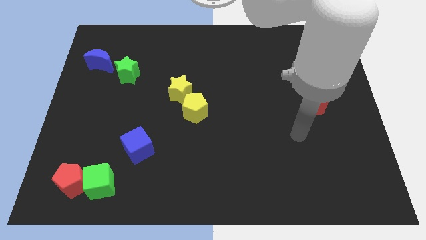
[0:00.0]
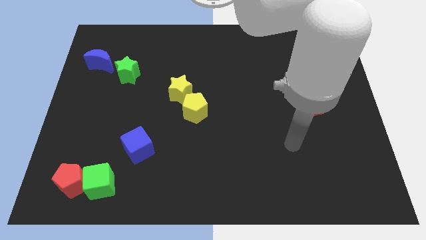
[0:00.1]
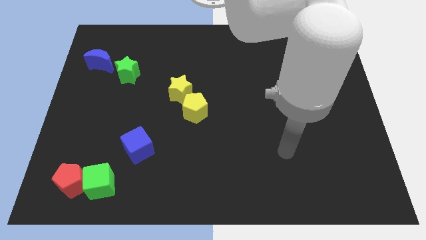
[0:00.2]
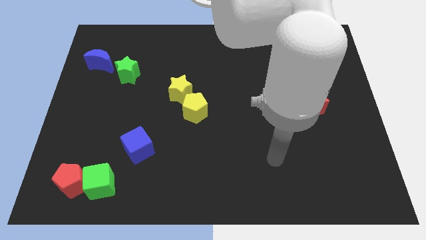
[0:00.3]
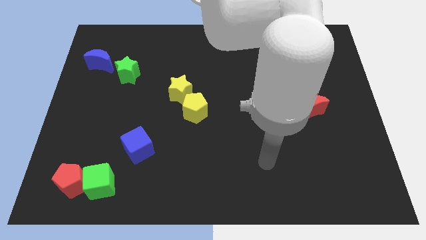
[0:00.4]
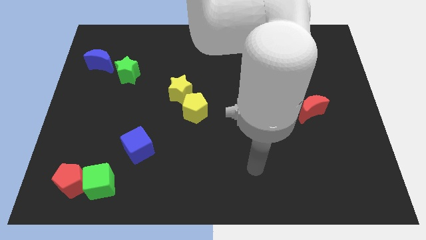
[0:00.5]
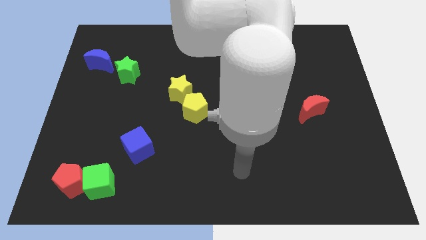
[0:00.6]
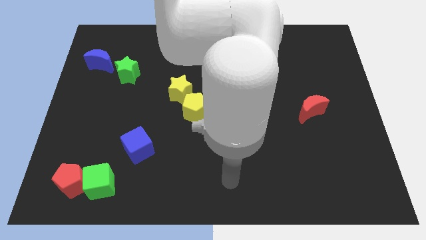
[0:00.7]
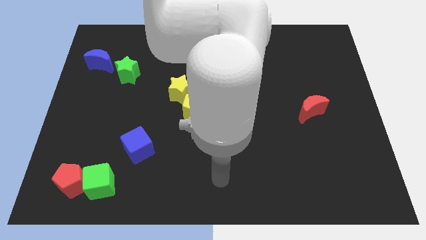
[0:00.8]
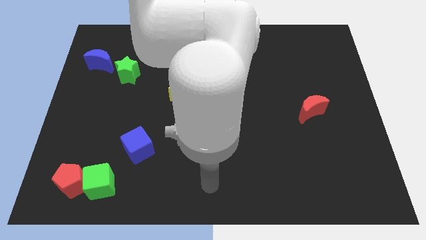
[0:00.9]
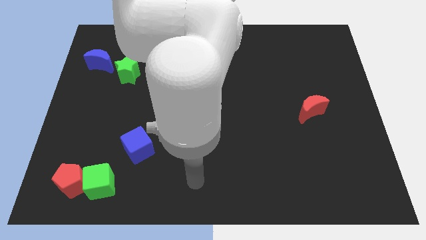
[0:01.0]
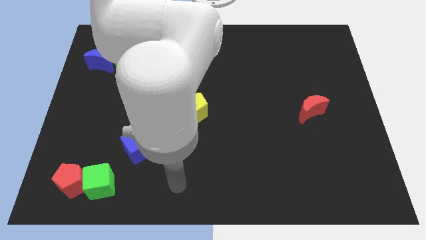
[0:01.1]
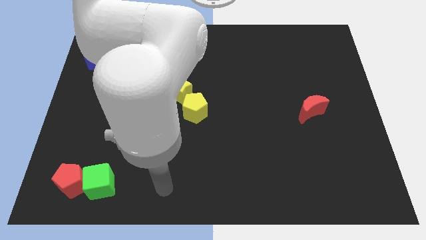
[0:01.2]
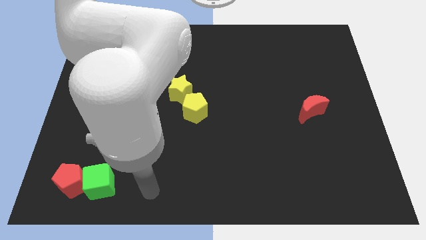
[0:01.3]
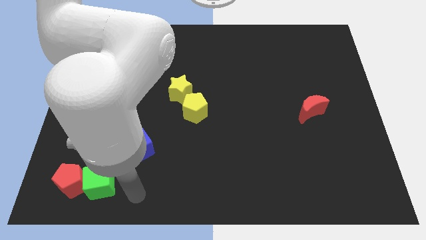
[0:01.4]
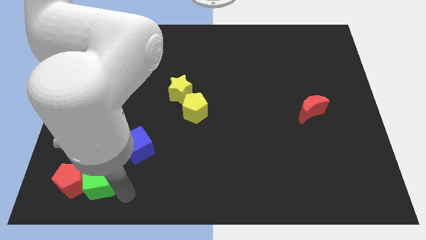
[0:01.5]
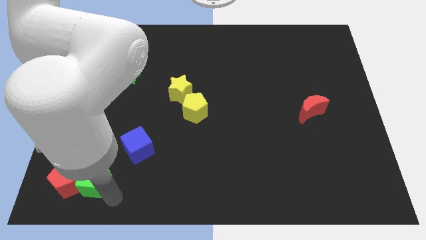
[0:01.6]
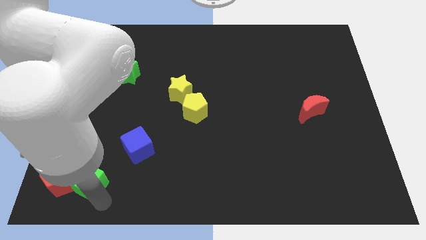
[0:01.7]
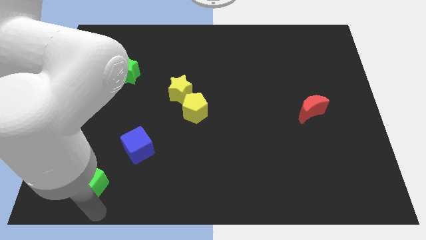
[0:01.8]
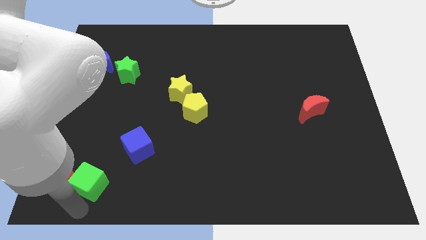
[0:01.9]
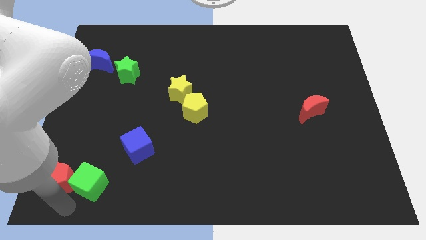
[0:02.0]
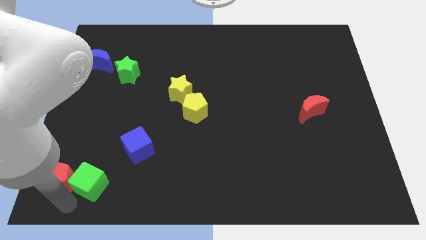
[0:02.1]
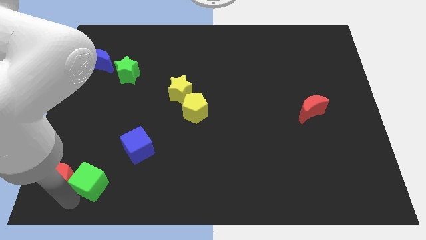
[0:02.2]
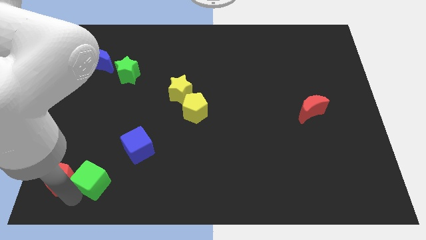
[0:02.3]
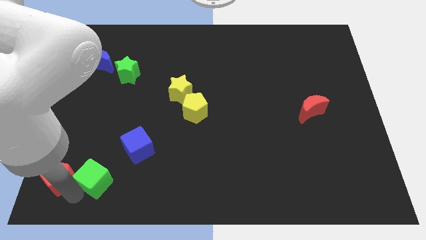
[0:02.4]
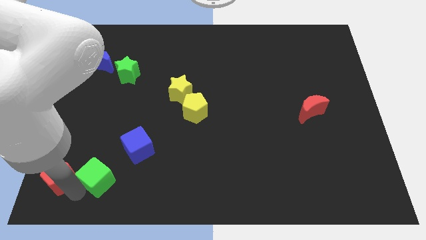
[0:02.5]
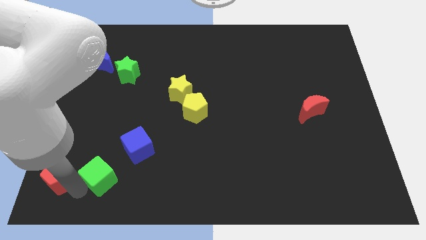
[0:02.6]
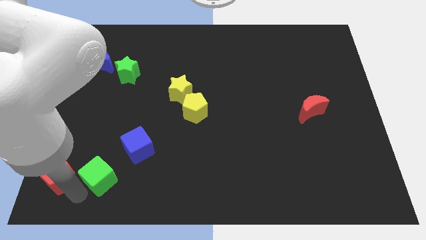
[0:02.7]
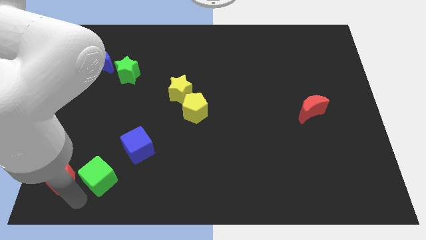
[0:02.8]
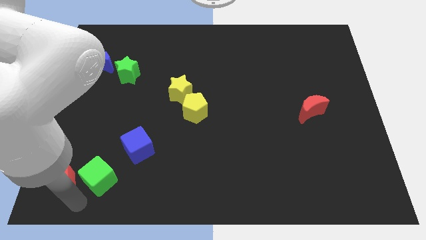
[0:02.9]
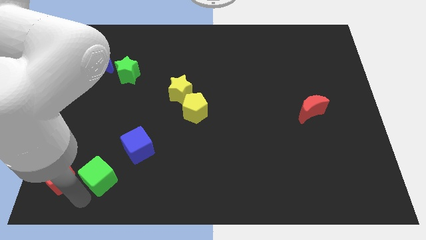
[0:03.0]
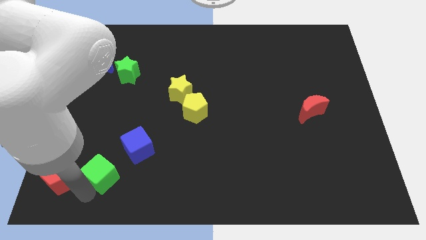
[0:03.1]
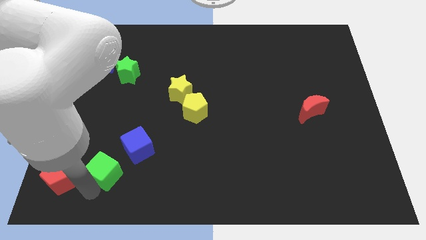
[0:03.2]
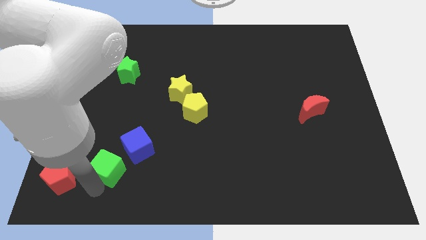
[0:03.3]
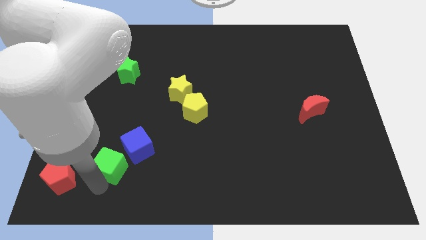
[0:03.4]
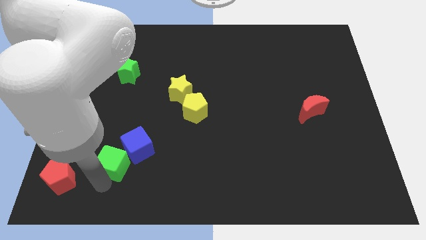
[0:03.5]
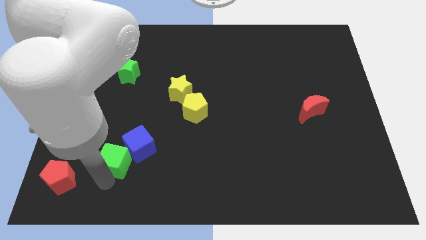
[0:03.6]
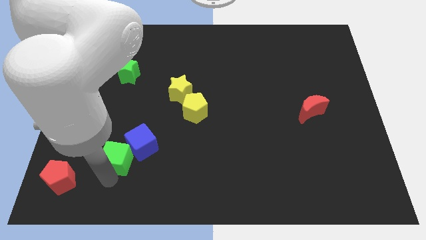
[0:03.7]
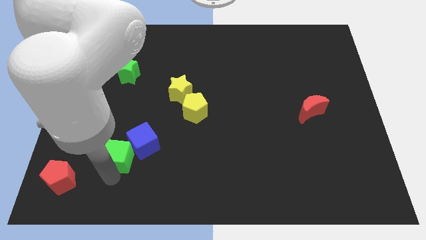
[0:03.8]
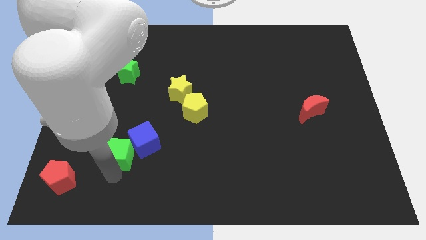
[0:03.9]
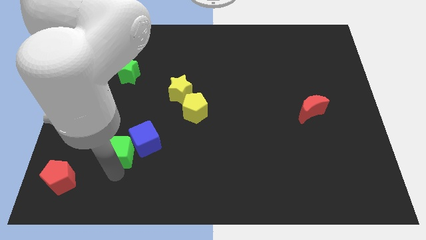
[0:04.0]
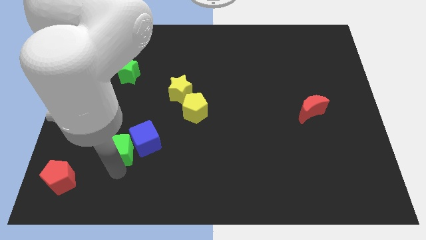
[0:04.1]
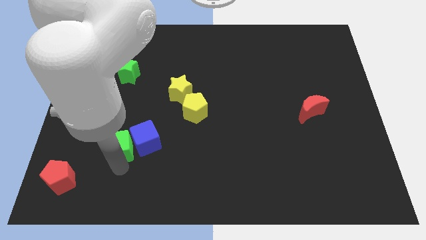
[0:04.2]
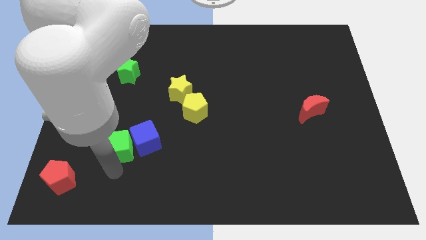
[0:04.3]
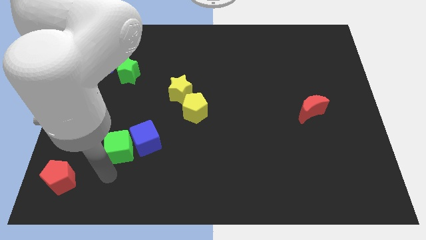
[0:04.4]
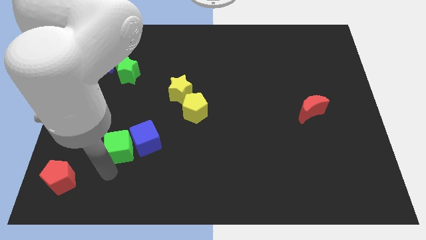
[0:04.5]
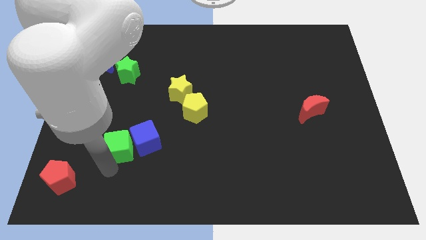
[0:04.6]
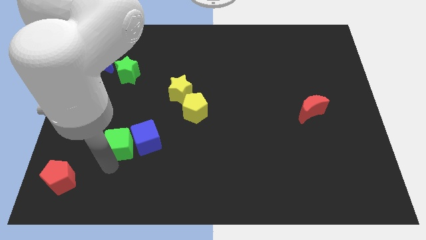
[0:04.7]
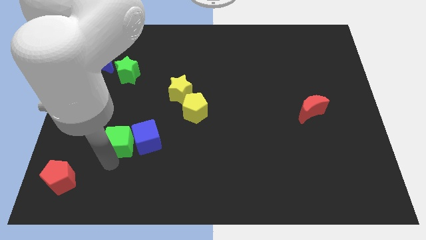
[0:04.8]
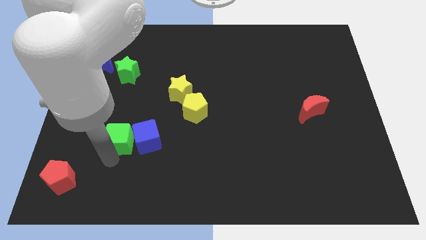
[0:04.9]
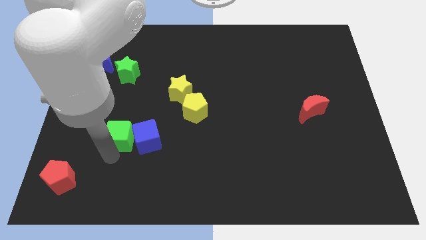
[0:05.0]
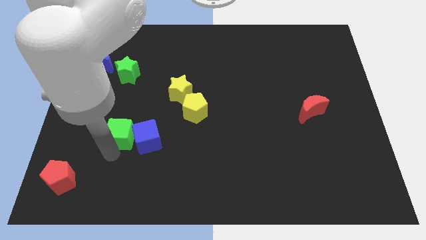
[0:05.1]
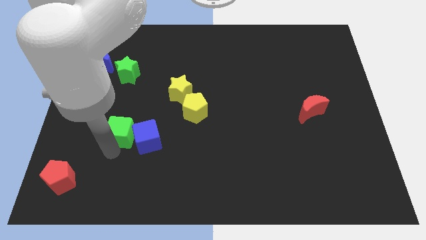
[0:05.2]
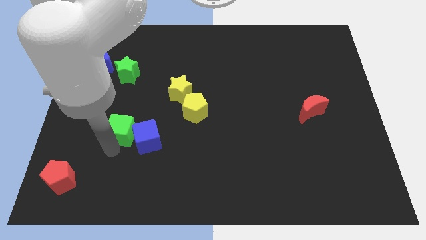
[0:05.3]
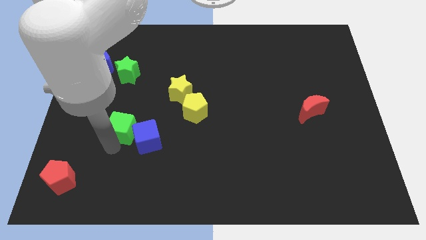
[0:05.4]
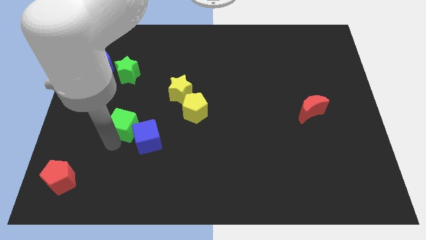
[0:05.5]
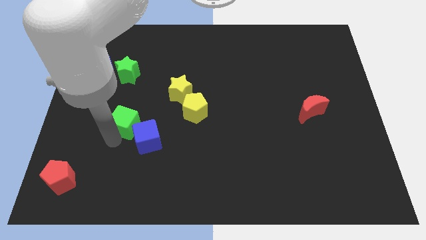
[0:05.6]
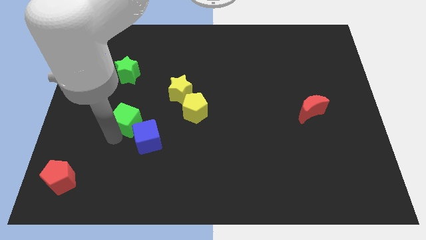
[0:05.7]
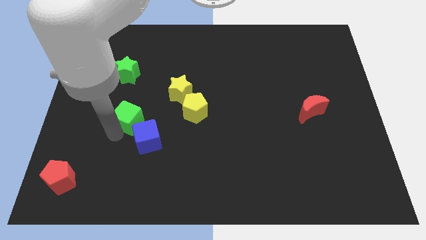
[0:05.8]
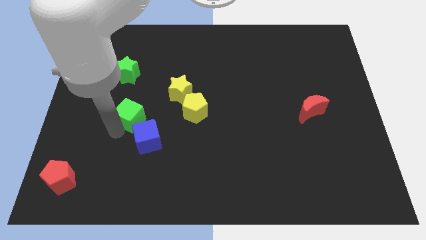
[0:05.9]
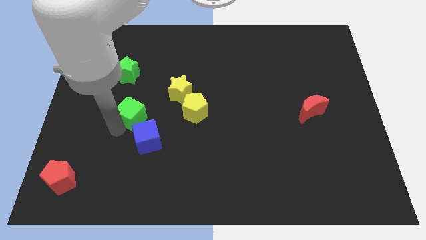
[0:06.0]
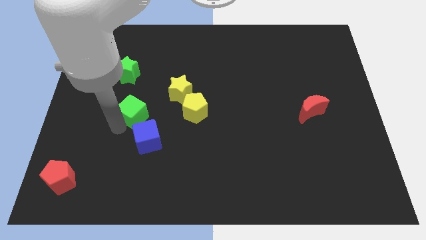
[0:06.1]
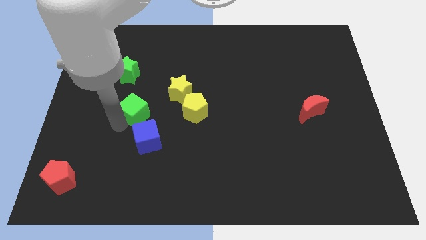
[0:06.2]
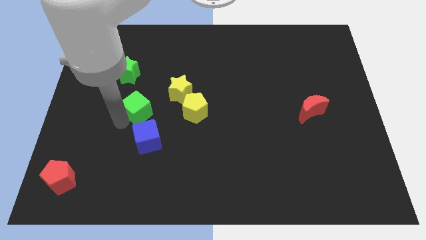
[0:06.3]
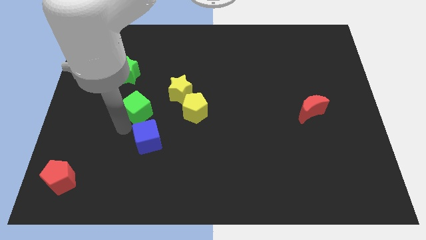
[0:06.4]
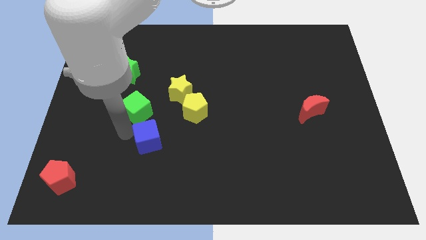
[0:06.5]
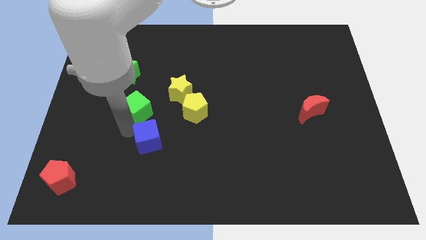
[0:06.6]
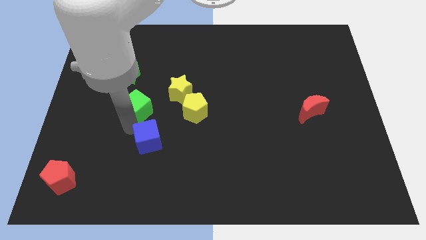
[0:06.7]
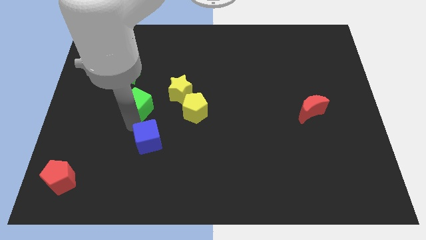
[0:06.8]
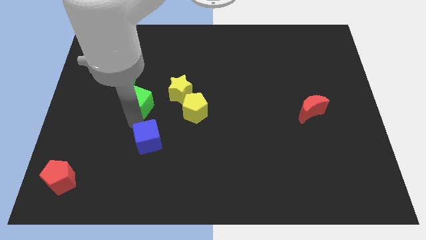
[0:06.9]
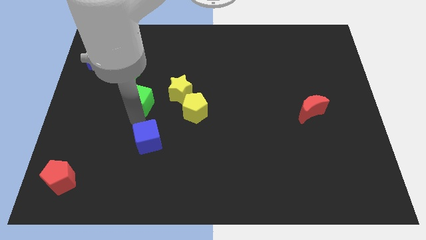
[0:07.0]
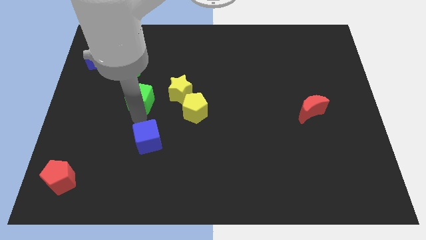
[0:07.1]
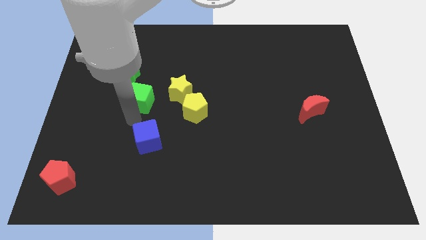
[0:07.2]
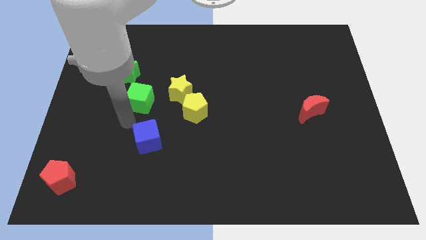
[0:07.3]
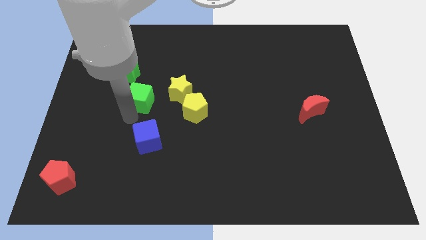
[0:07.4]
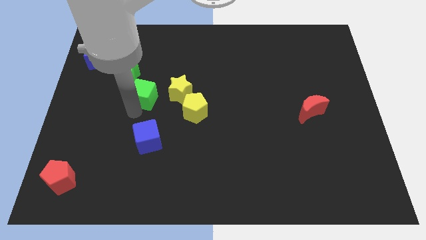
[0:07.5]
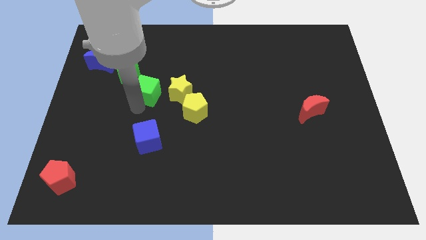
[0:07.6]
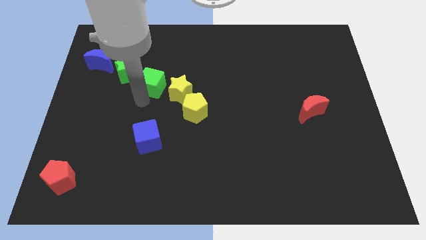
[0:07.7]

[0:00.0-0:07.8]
slide the green cube to the right of the green star
